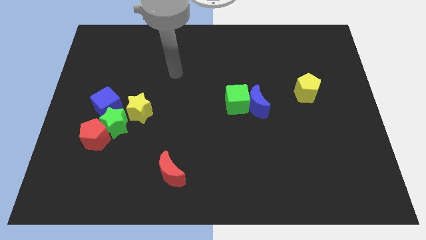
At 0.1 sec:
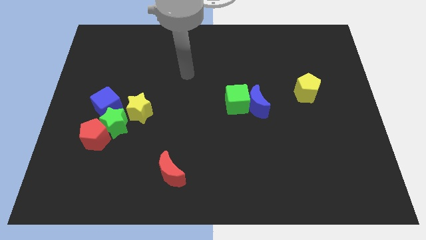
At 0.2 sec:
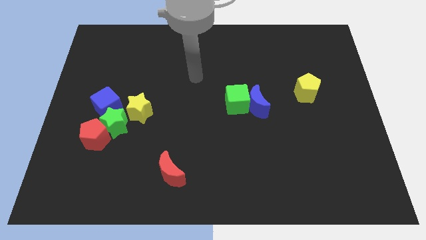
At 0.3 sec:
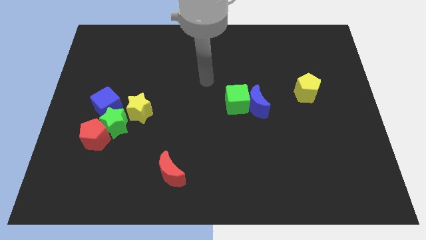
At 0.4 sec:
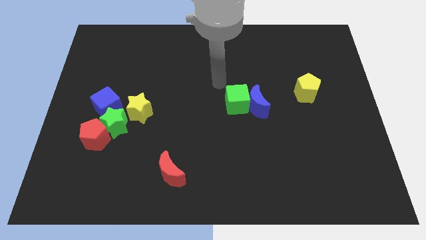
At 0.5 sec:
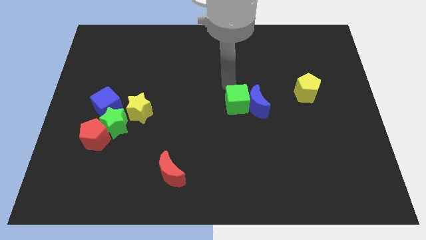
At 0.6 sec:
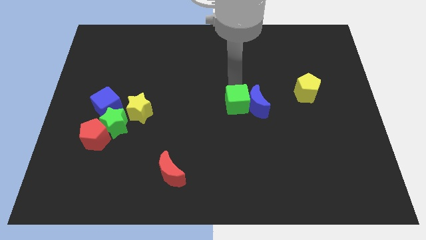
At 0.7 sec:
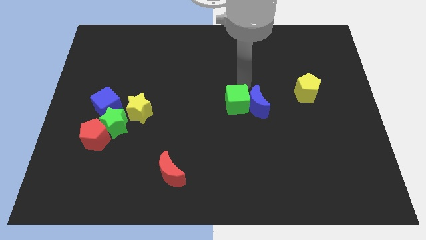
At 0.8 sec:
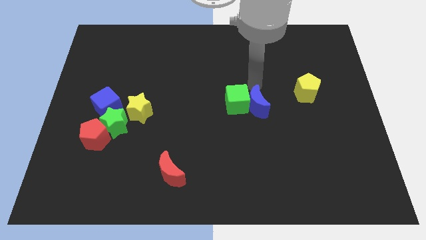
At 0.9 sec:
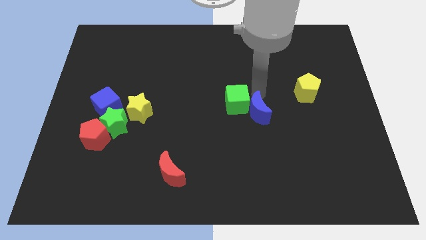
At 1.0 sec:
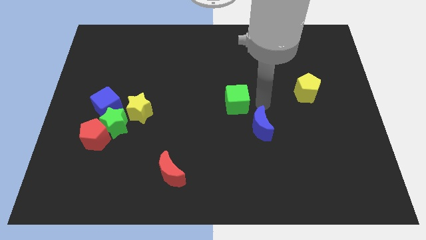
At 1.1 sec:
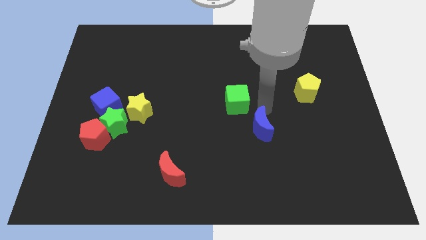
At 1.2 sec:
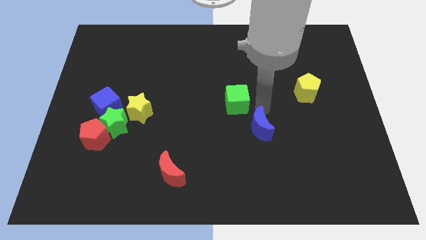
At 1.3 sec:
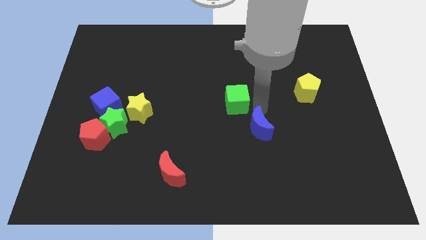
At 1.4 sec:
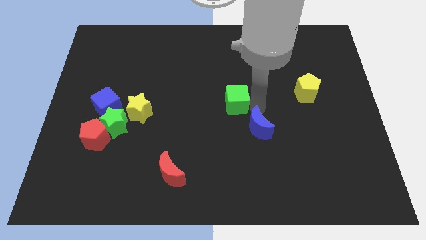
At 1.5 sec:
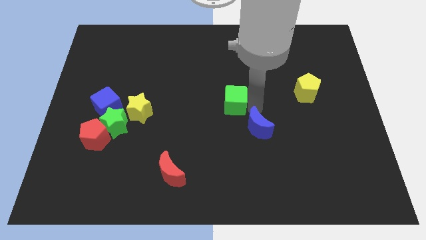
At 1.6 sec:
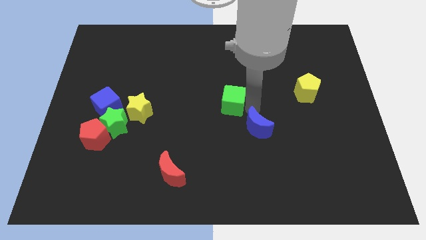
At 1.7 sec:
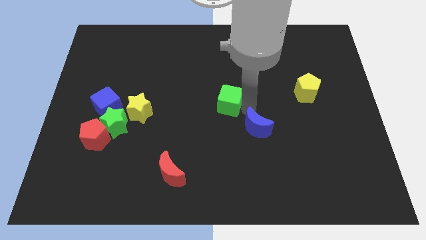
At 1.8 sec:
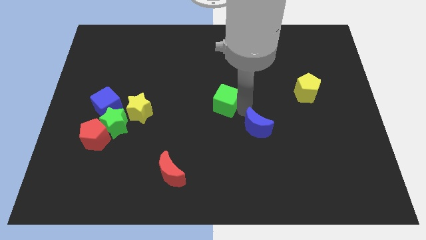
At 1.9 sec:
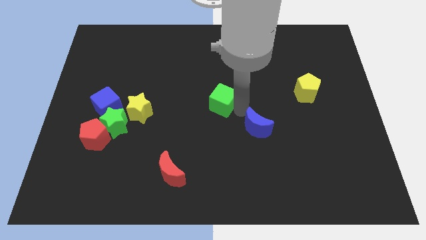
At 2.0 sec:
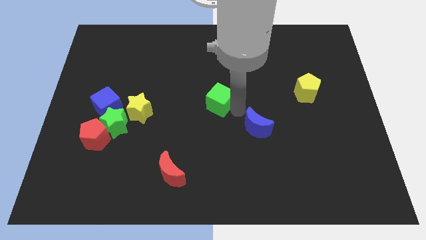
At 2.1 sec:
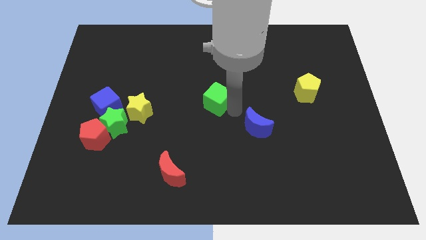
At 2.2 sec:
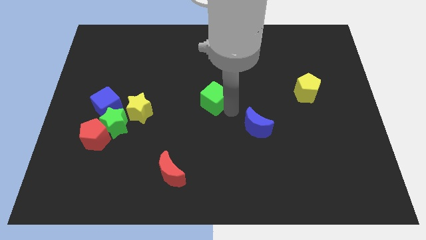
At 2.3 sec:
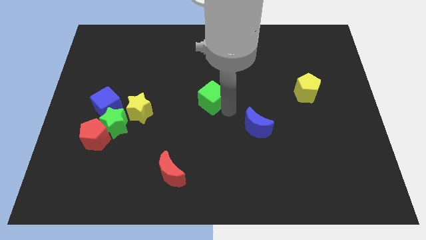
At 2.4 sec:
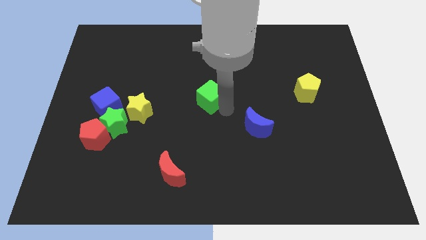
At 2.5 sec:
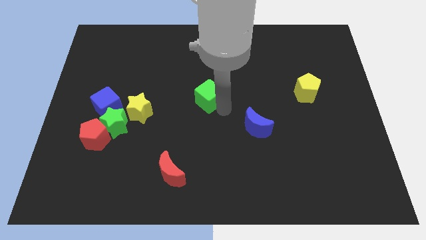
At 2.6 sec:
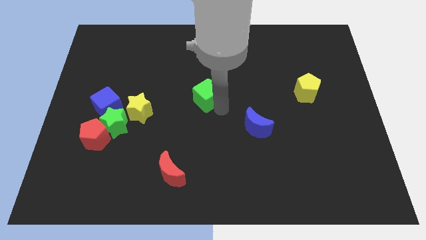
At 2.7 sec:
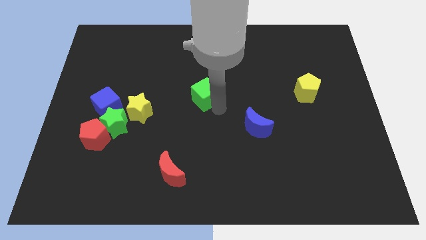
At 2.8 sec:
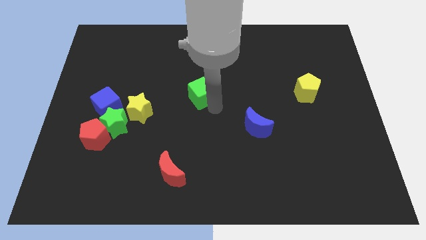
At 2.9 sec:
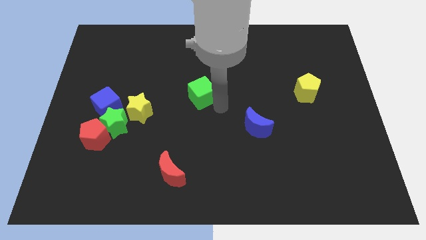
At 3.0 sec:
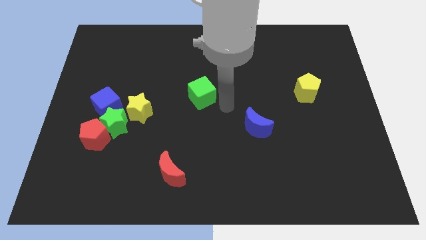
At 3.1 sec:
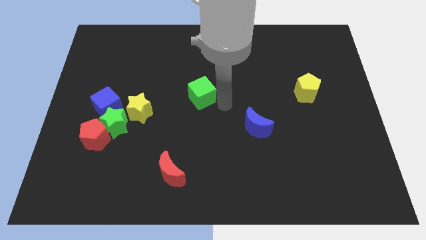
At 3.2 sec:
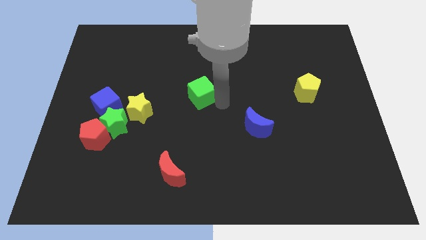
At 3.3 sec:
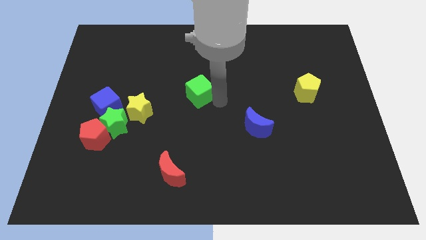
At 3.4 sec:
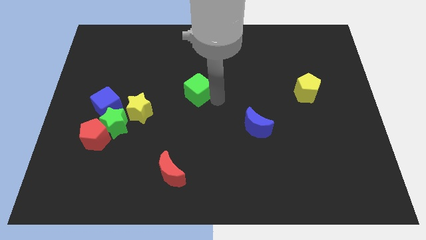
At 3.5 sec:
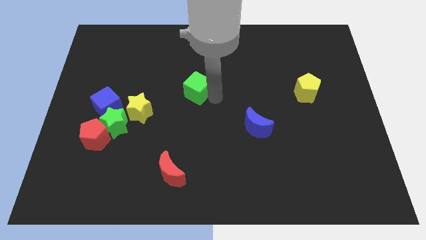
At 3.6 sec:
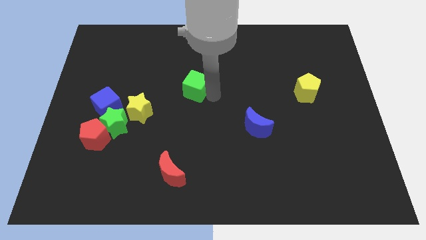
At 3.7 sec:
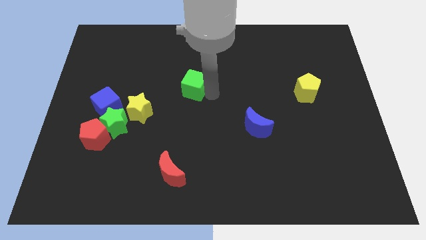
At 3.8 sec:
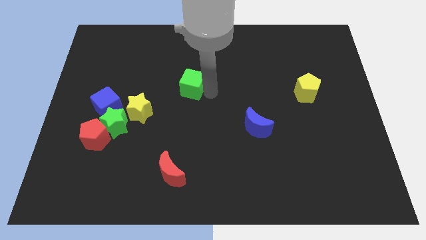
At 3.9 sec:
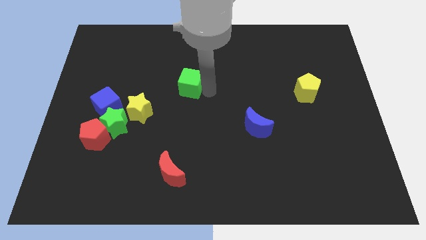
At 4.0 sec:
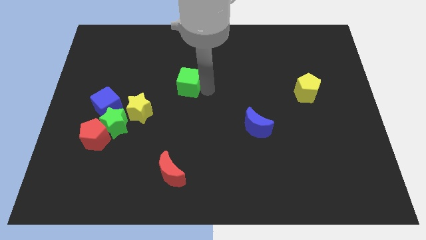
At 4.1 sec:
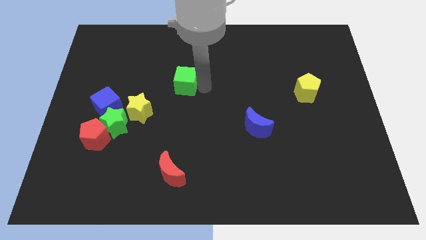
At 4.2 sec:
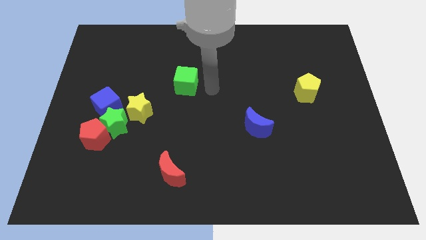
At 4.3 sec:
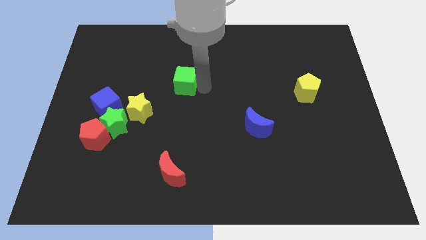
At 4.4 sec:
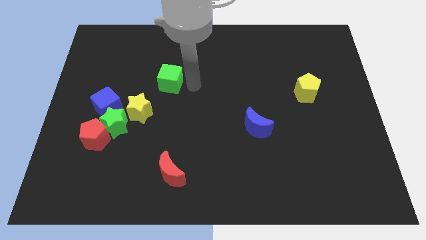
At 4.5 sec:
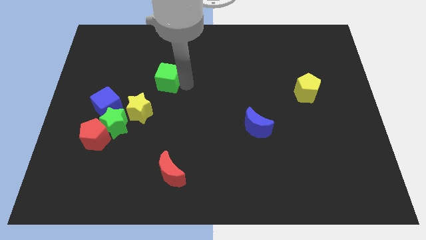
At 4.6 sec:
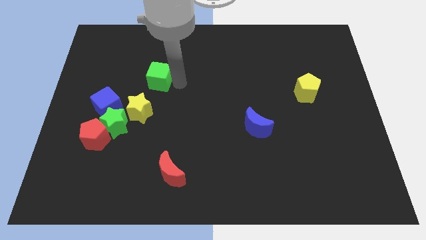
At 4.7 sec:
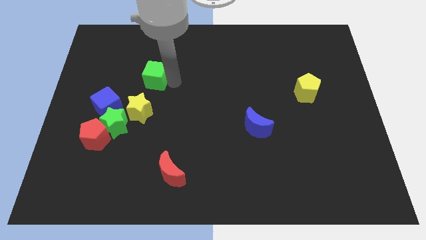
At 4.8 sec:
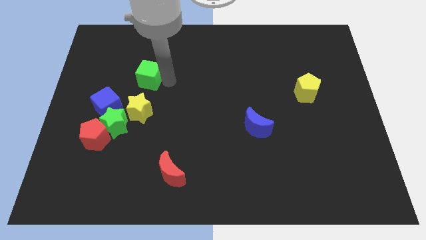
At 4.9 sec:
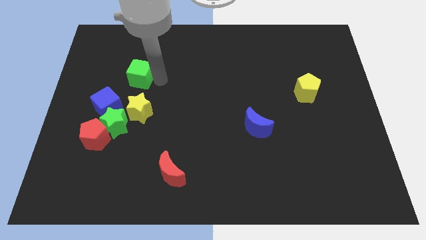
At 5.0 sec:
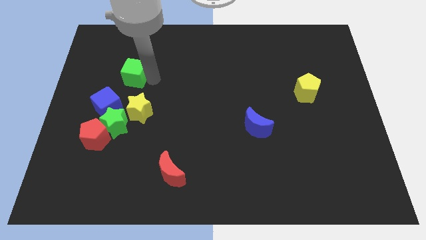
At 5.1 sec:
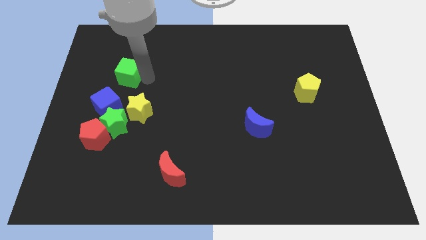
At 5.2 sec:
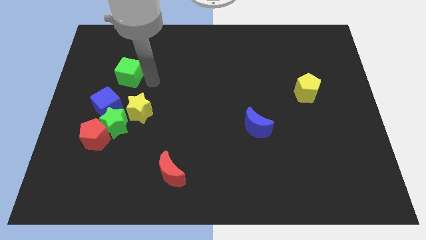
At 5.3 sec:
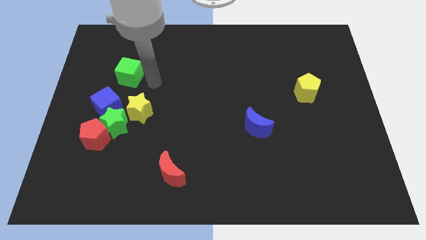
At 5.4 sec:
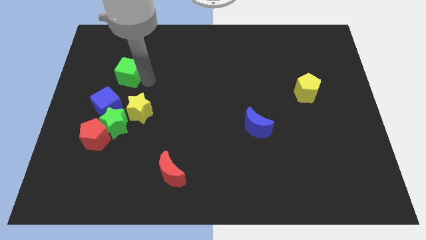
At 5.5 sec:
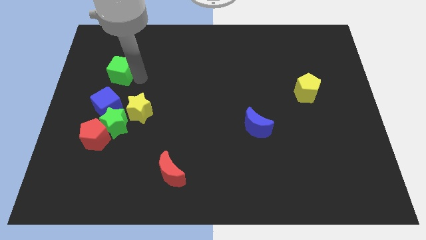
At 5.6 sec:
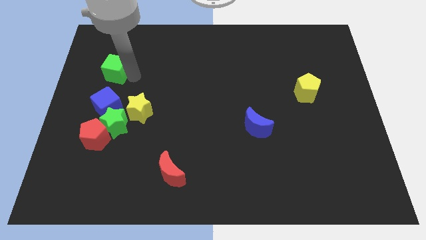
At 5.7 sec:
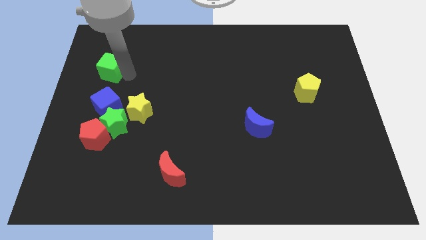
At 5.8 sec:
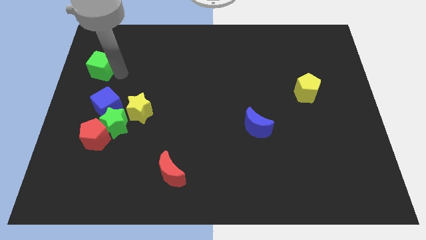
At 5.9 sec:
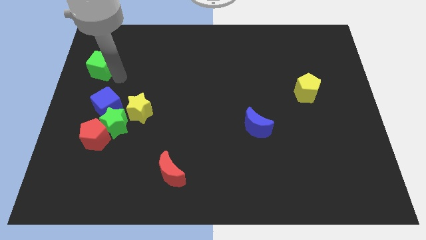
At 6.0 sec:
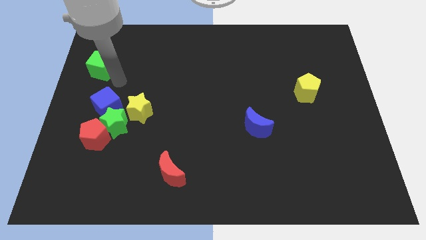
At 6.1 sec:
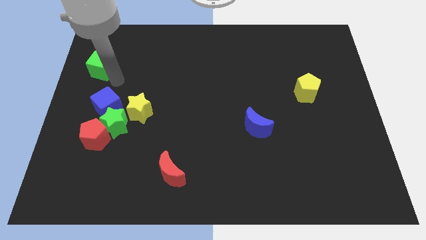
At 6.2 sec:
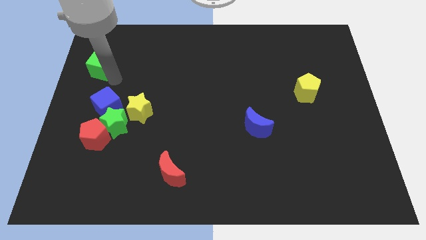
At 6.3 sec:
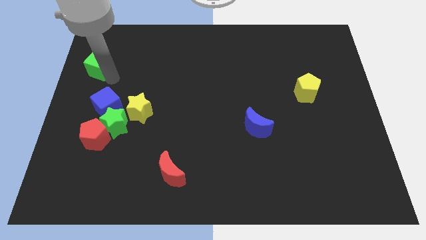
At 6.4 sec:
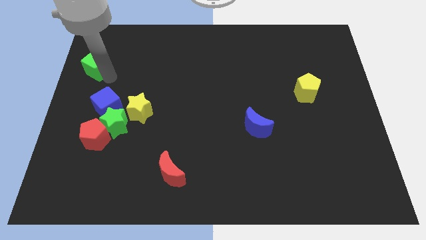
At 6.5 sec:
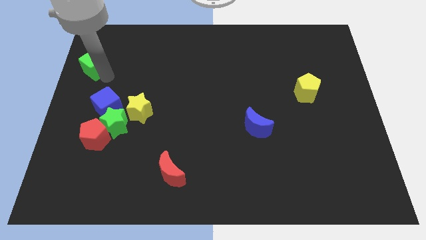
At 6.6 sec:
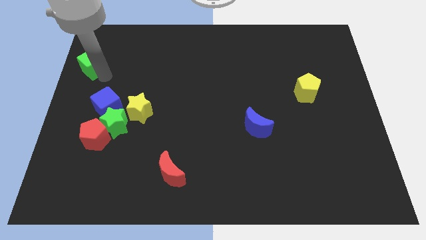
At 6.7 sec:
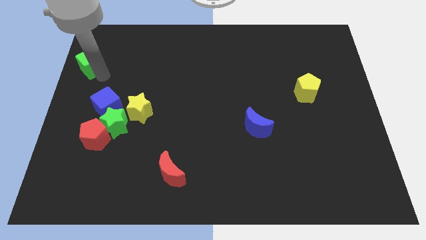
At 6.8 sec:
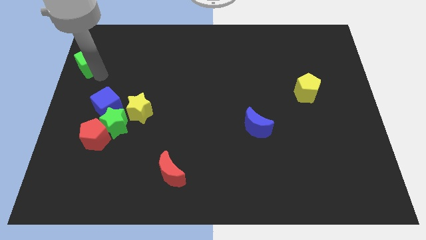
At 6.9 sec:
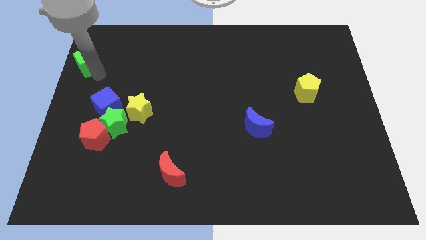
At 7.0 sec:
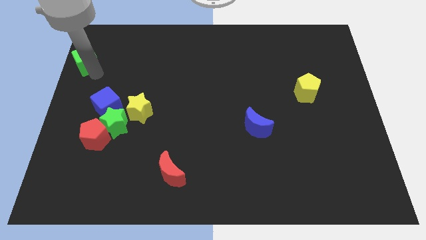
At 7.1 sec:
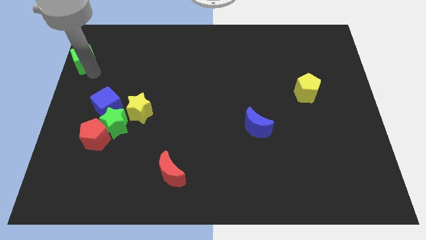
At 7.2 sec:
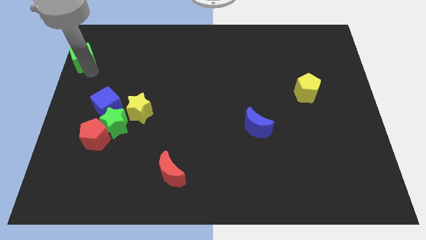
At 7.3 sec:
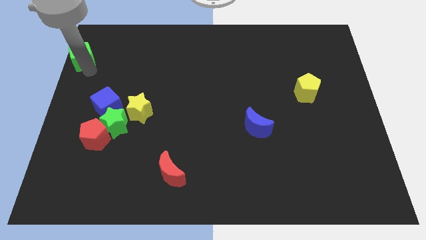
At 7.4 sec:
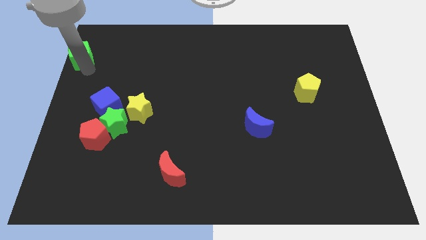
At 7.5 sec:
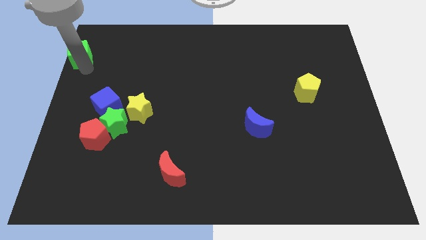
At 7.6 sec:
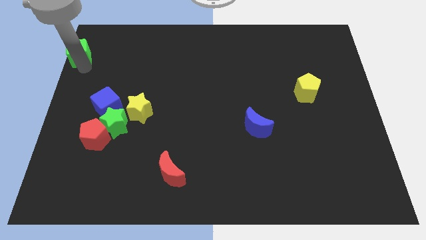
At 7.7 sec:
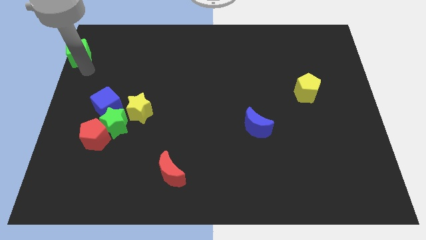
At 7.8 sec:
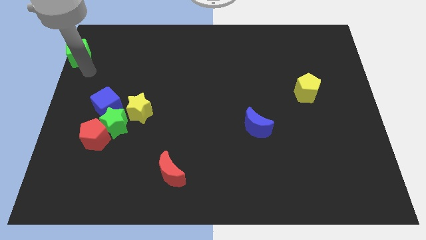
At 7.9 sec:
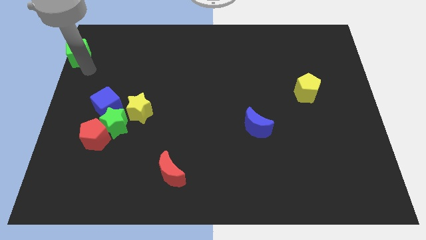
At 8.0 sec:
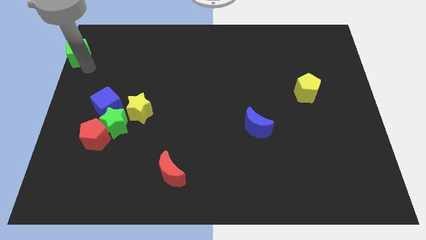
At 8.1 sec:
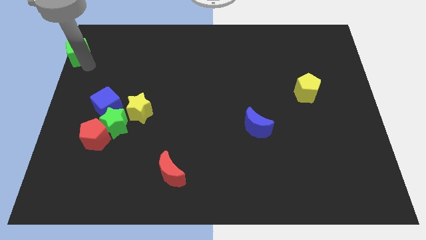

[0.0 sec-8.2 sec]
slide the green cube to the top left corner
